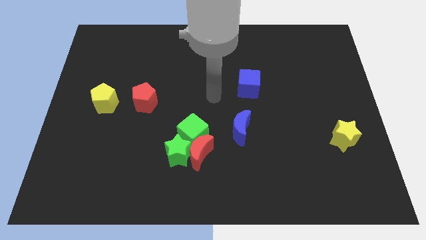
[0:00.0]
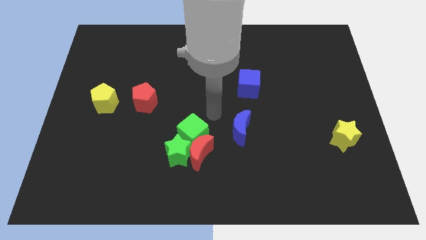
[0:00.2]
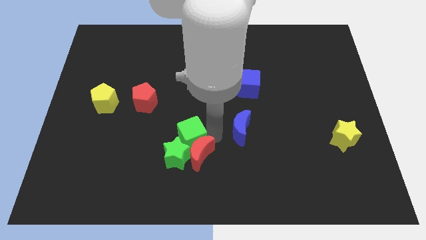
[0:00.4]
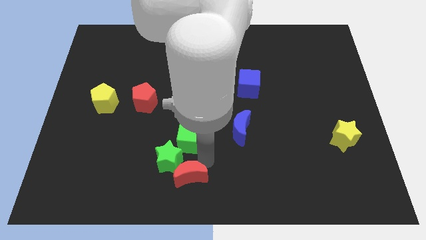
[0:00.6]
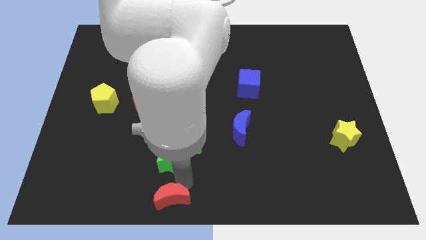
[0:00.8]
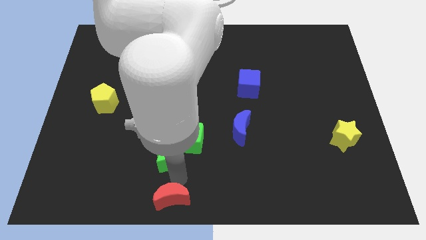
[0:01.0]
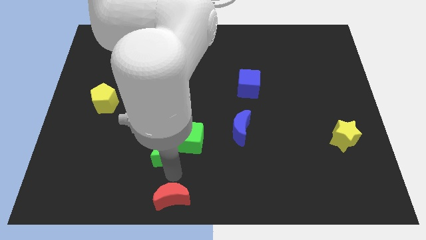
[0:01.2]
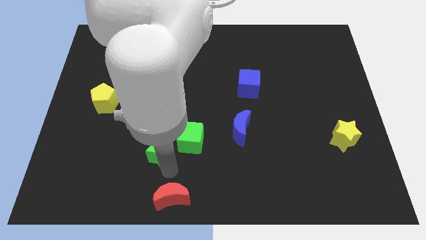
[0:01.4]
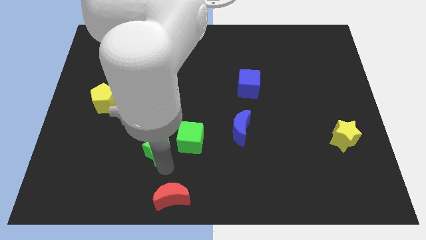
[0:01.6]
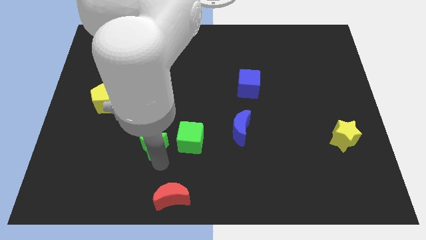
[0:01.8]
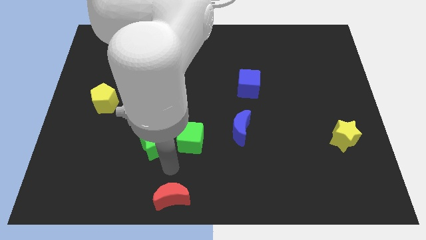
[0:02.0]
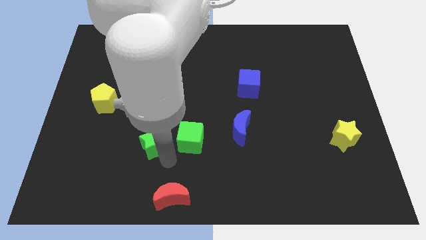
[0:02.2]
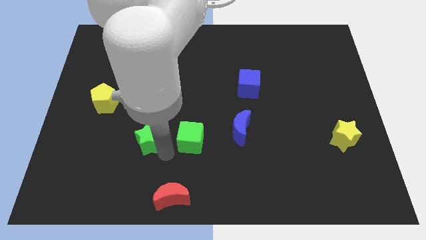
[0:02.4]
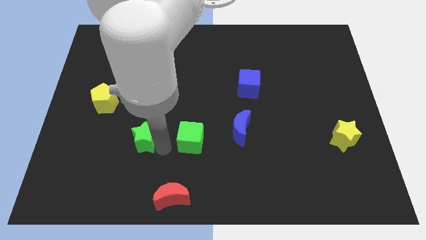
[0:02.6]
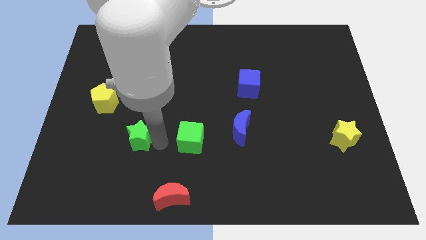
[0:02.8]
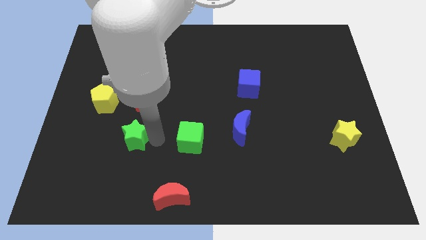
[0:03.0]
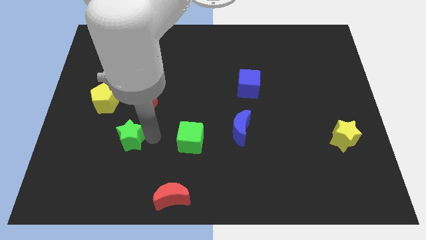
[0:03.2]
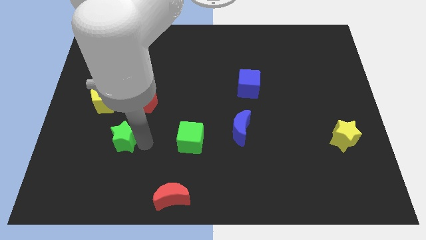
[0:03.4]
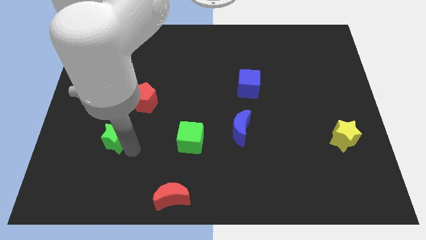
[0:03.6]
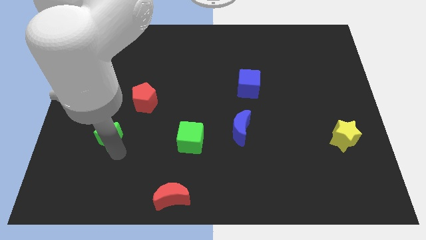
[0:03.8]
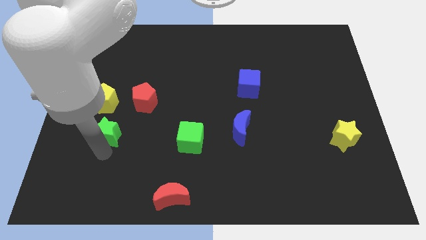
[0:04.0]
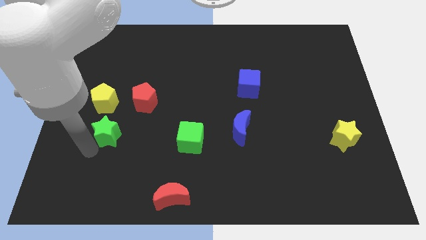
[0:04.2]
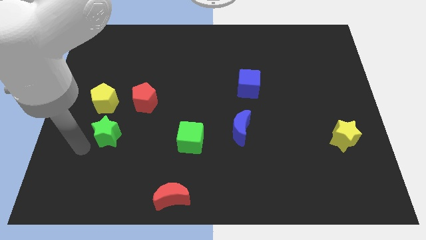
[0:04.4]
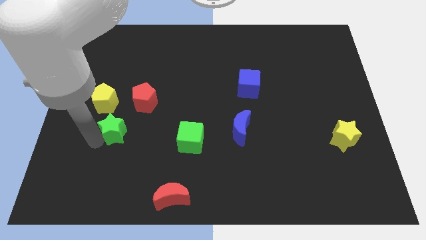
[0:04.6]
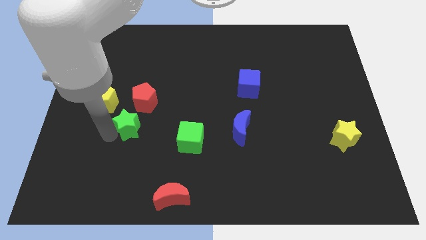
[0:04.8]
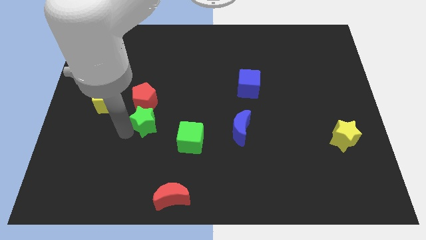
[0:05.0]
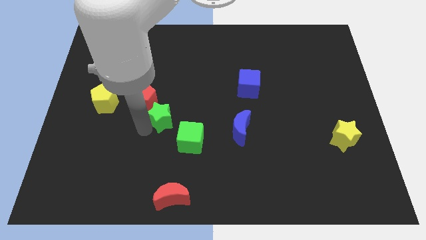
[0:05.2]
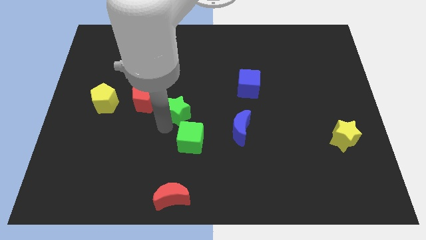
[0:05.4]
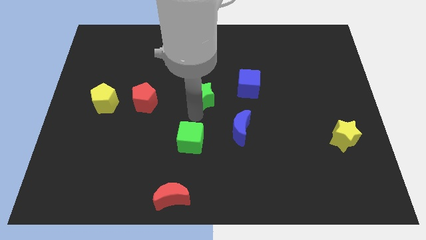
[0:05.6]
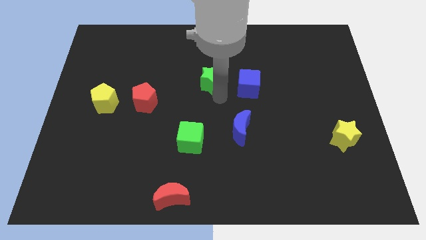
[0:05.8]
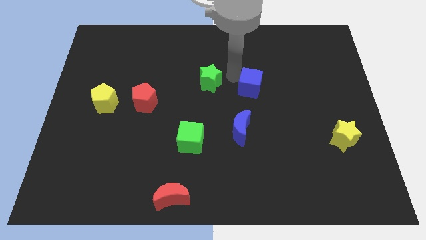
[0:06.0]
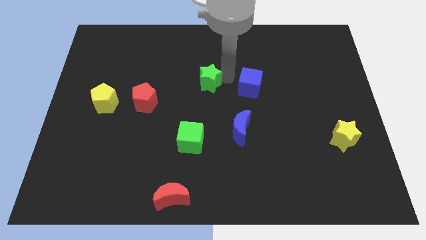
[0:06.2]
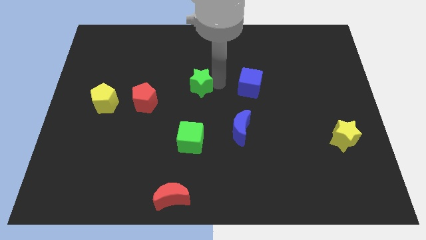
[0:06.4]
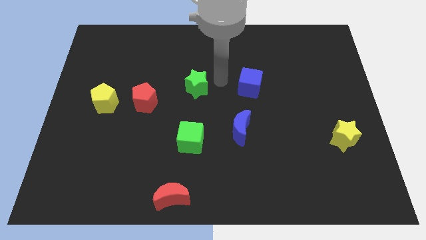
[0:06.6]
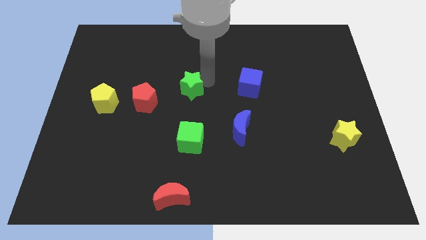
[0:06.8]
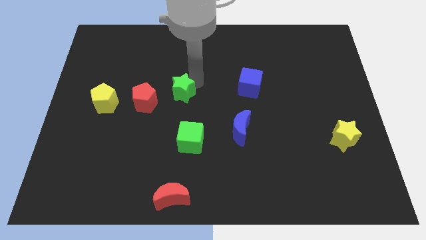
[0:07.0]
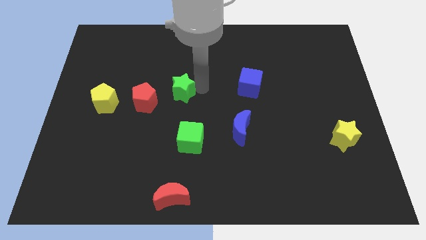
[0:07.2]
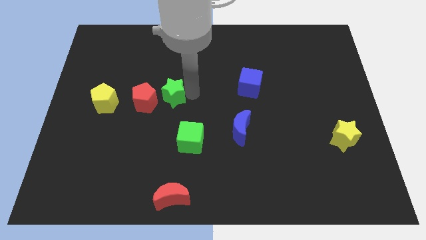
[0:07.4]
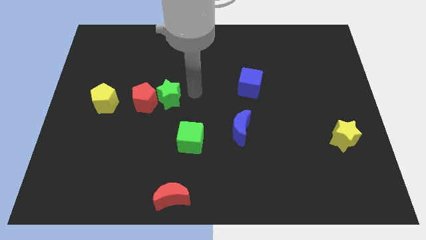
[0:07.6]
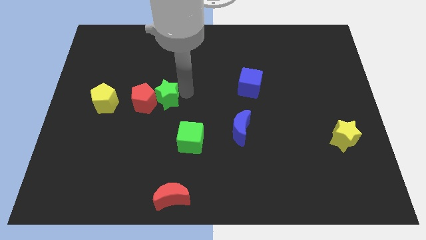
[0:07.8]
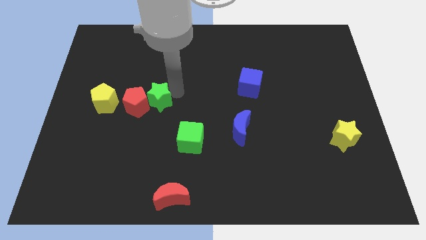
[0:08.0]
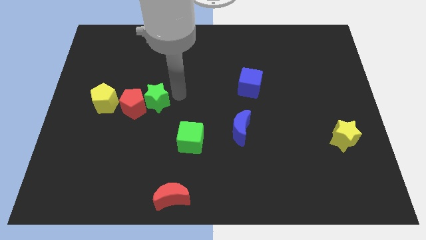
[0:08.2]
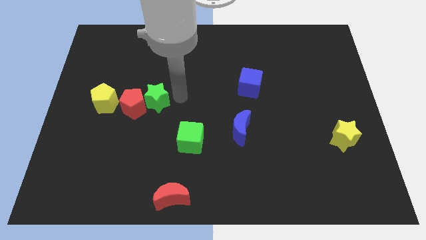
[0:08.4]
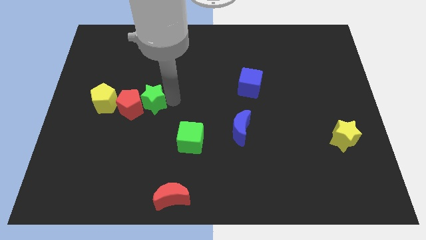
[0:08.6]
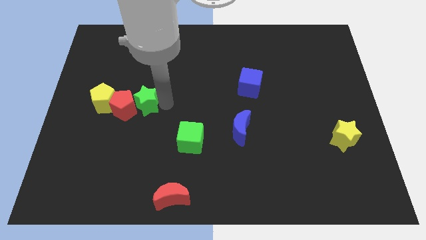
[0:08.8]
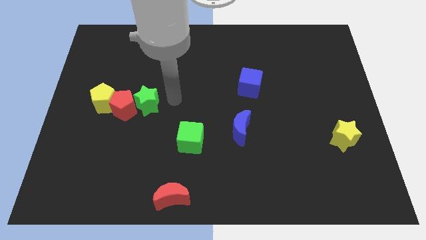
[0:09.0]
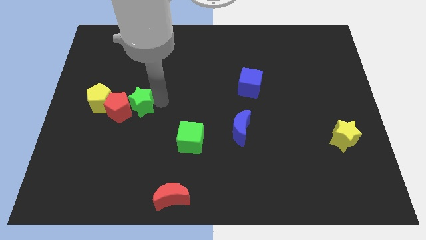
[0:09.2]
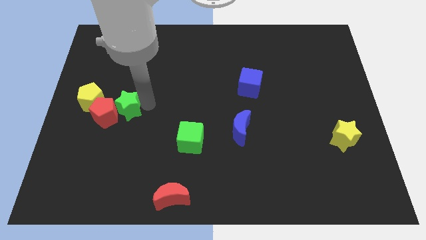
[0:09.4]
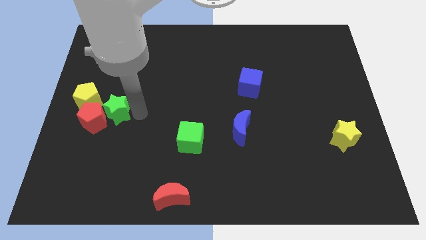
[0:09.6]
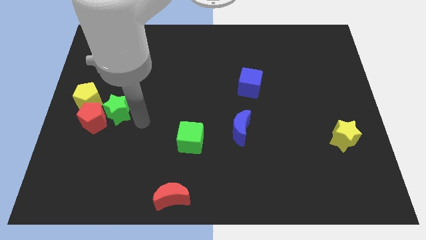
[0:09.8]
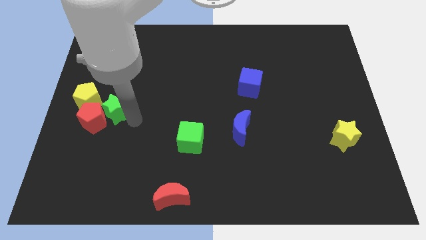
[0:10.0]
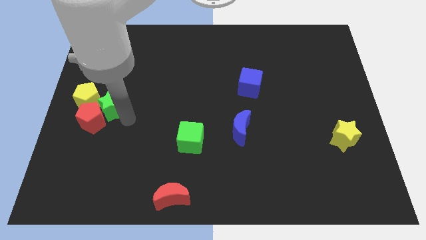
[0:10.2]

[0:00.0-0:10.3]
move the green star to the yellow pentagon

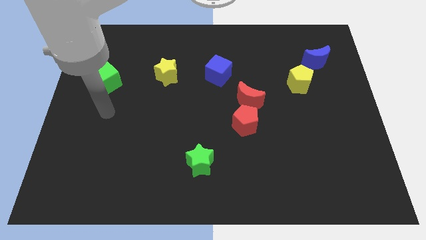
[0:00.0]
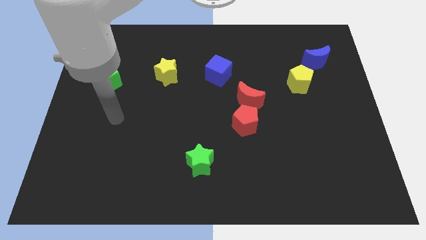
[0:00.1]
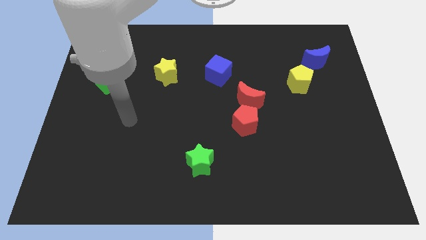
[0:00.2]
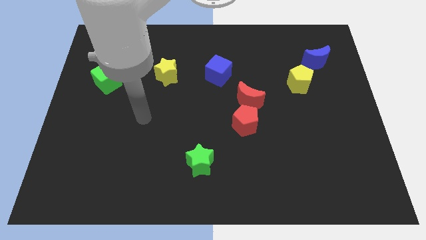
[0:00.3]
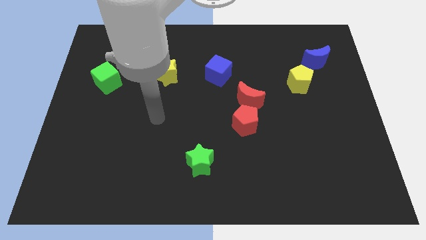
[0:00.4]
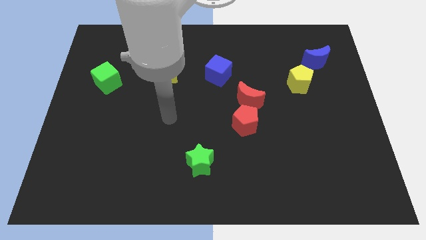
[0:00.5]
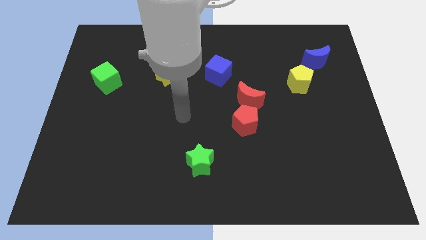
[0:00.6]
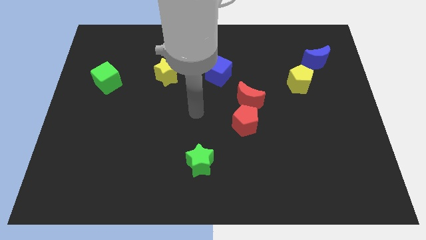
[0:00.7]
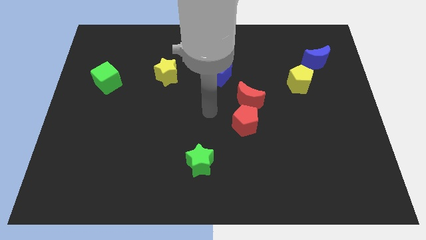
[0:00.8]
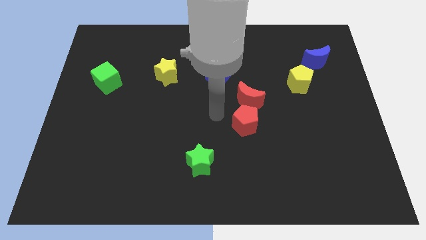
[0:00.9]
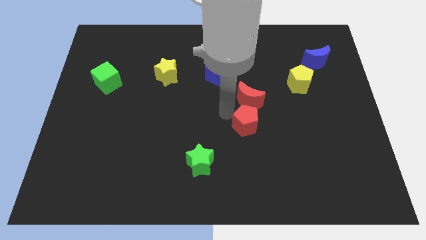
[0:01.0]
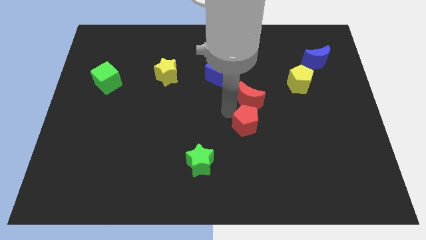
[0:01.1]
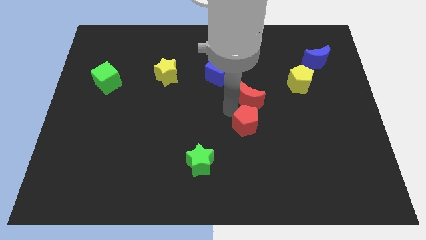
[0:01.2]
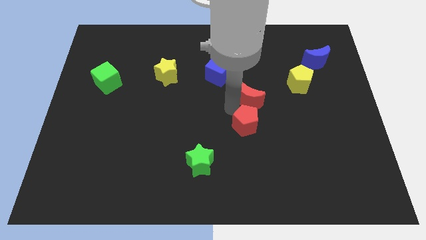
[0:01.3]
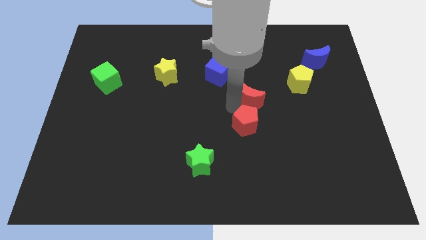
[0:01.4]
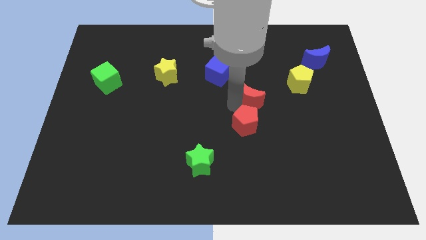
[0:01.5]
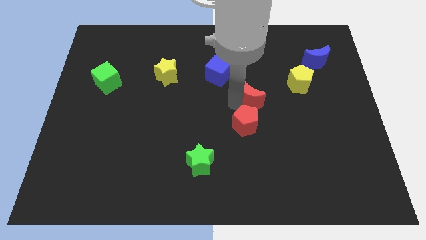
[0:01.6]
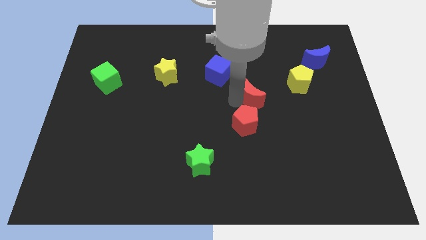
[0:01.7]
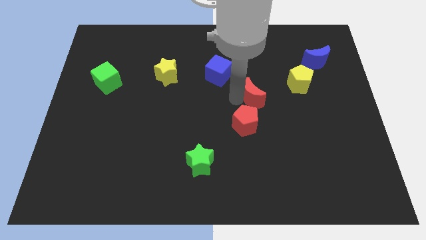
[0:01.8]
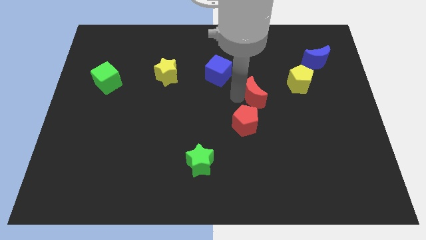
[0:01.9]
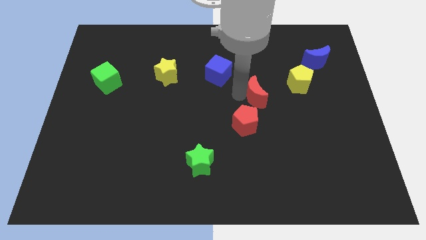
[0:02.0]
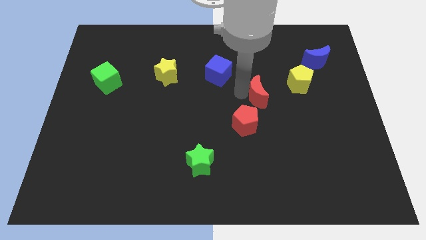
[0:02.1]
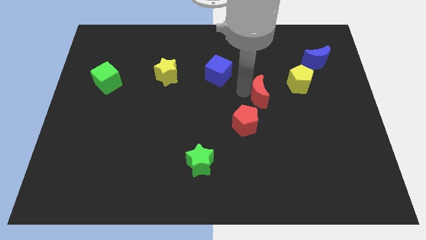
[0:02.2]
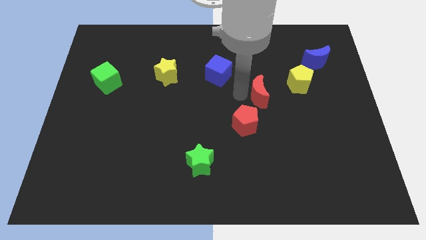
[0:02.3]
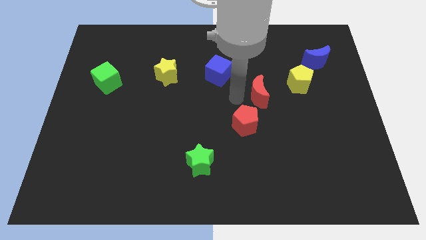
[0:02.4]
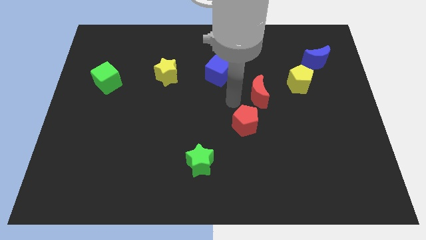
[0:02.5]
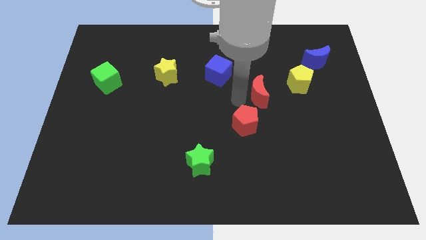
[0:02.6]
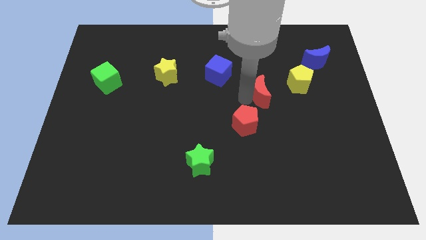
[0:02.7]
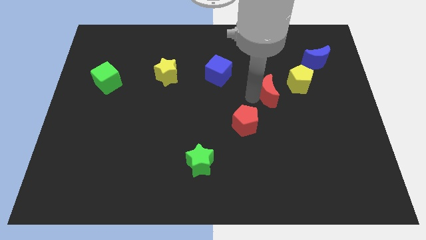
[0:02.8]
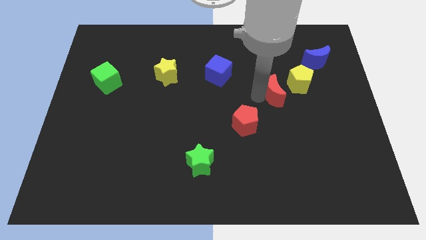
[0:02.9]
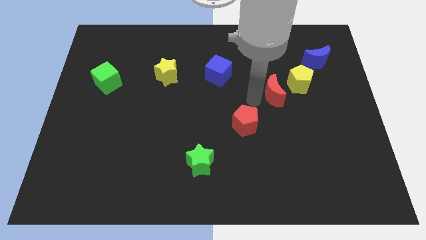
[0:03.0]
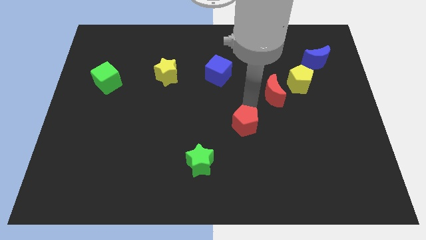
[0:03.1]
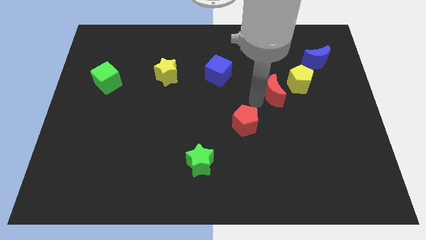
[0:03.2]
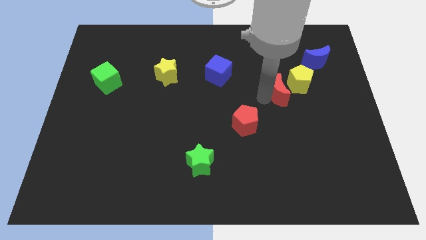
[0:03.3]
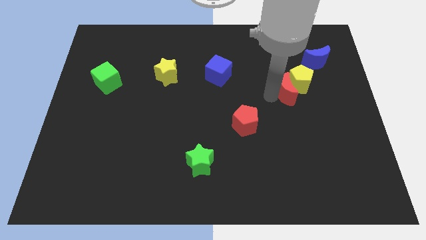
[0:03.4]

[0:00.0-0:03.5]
move the red moon close to the yellow pentagon
